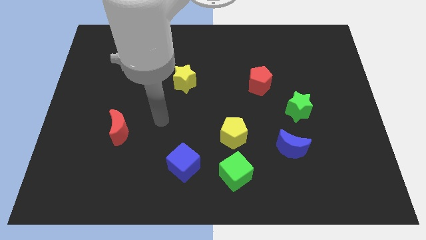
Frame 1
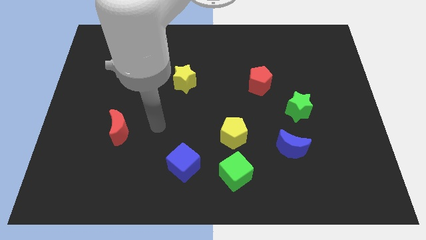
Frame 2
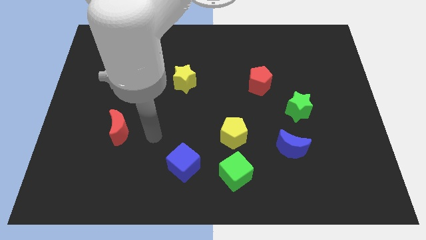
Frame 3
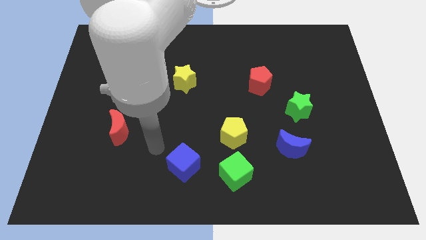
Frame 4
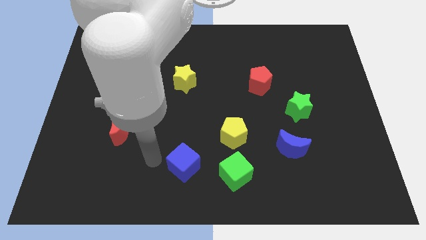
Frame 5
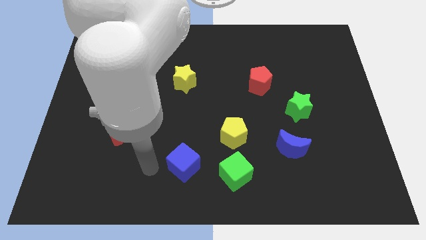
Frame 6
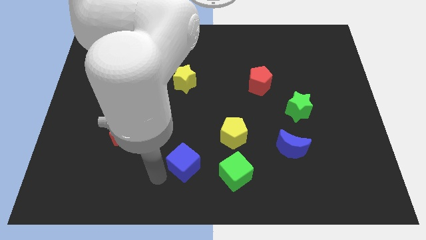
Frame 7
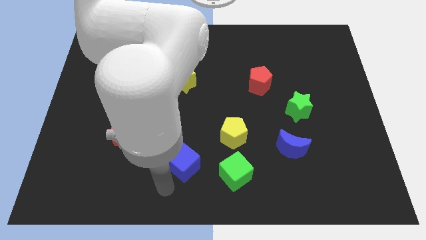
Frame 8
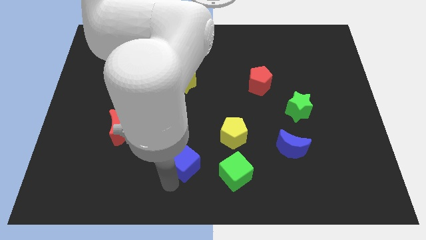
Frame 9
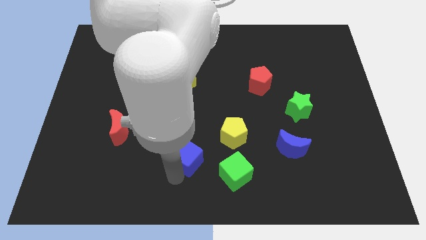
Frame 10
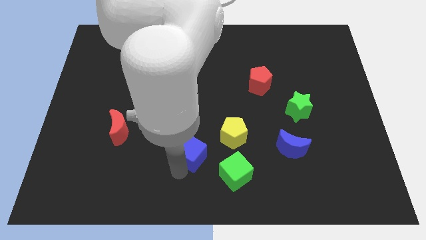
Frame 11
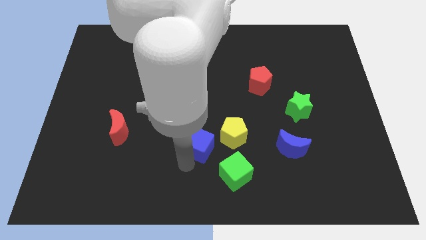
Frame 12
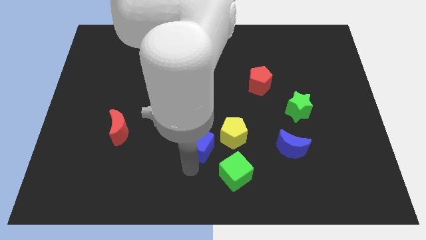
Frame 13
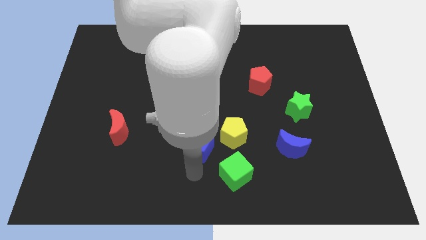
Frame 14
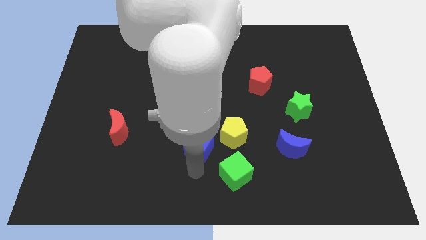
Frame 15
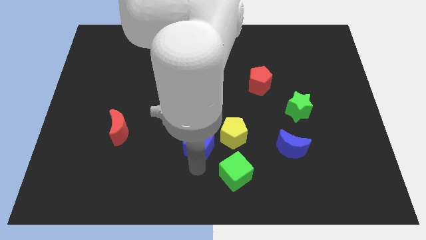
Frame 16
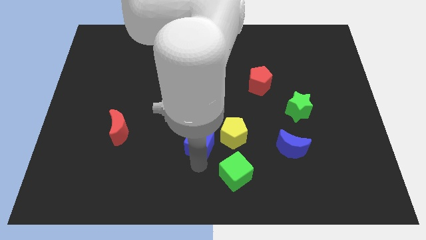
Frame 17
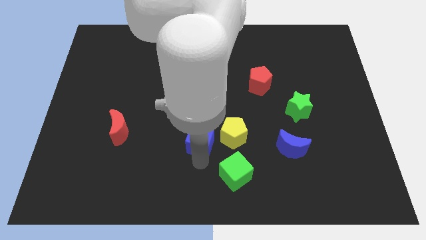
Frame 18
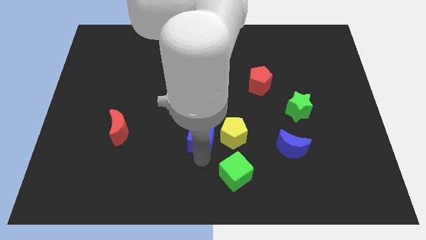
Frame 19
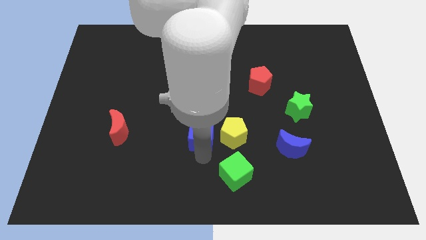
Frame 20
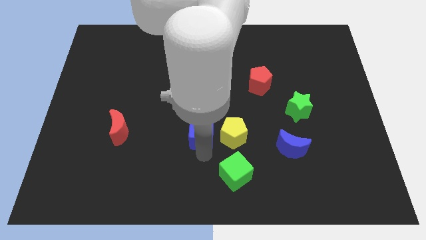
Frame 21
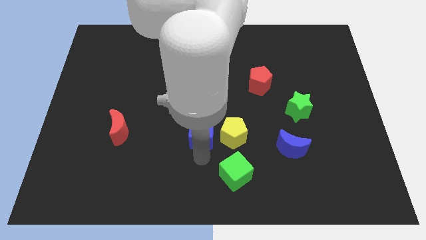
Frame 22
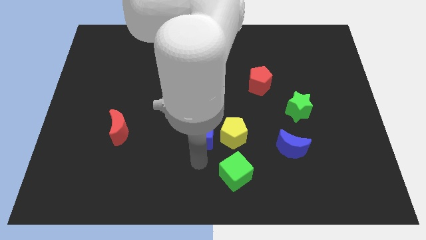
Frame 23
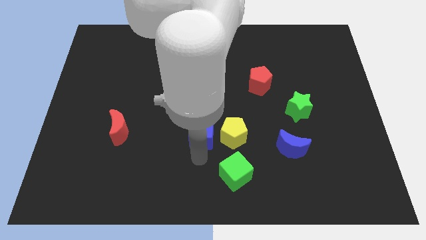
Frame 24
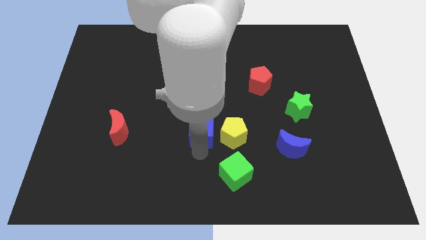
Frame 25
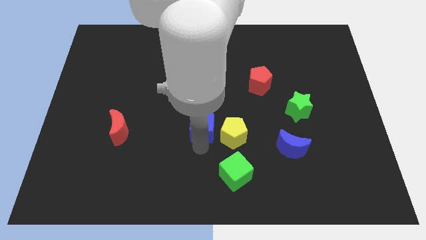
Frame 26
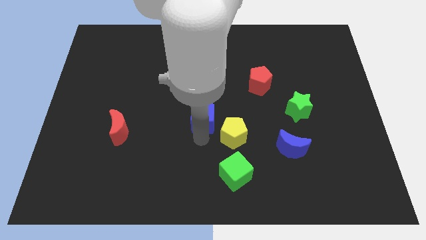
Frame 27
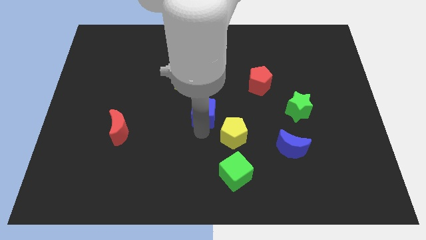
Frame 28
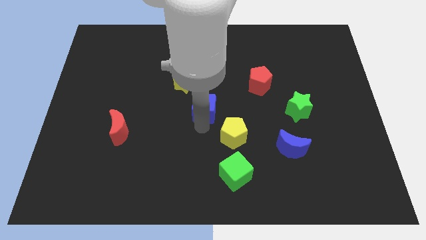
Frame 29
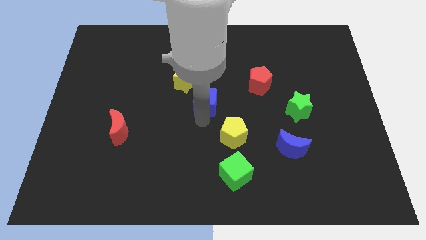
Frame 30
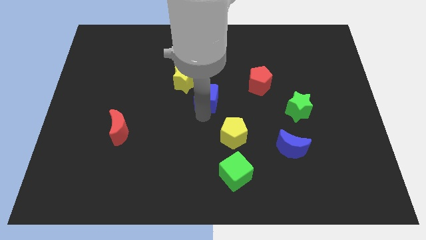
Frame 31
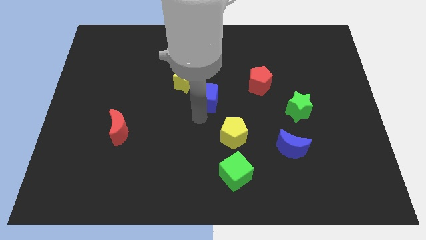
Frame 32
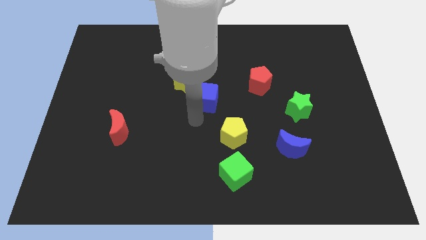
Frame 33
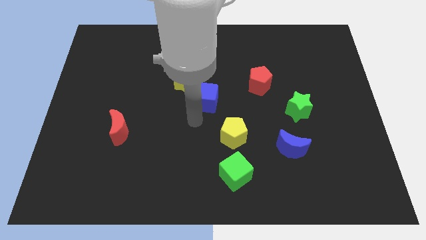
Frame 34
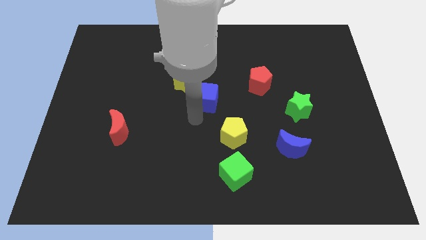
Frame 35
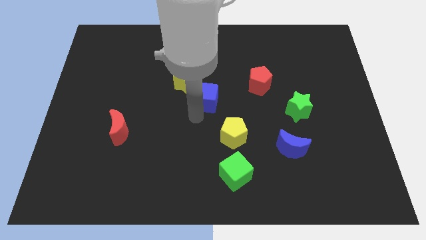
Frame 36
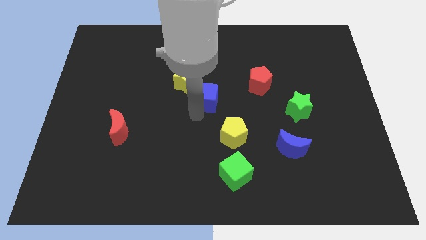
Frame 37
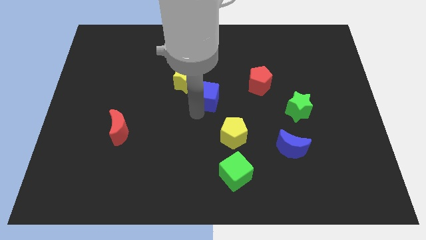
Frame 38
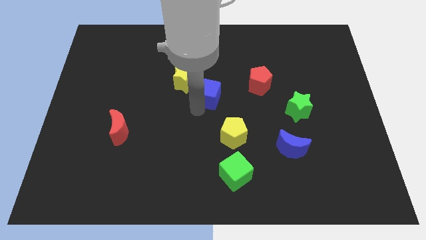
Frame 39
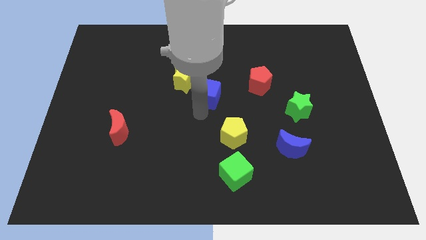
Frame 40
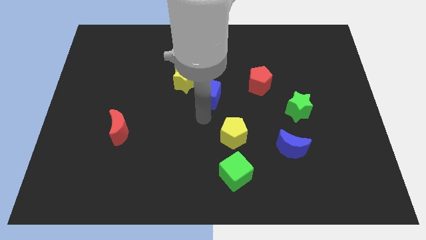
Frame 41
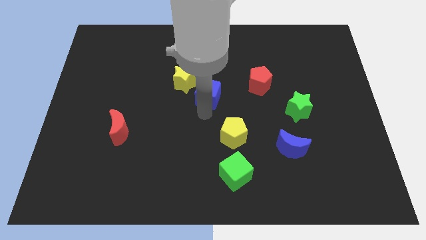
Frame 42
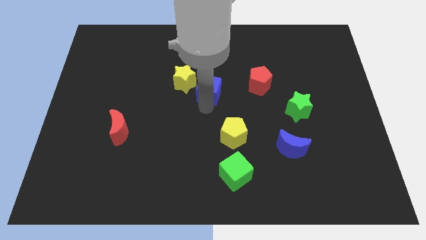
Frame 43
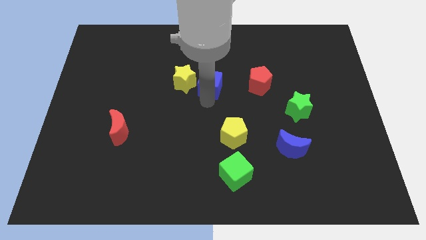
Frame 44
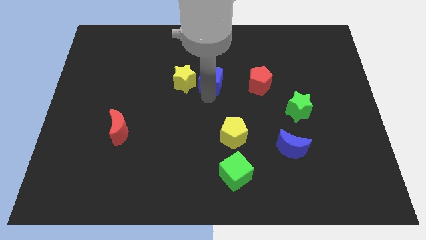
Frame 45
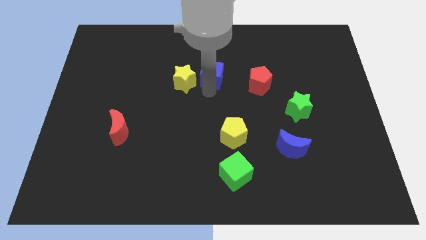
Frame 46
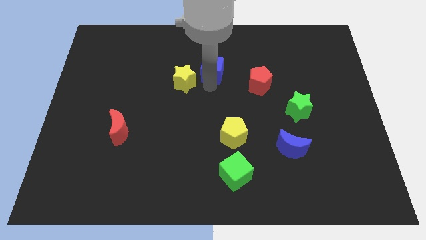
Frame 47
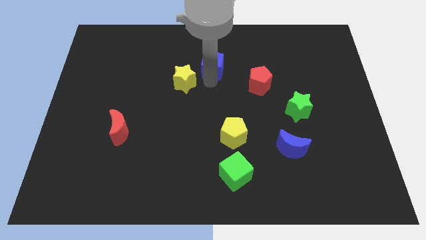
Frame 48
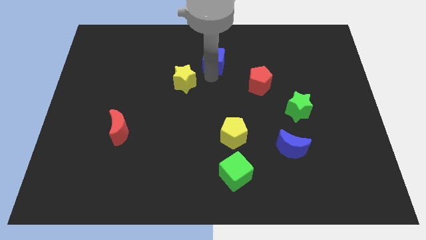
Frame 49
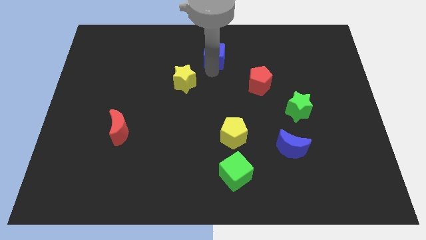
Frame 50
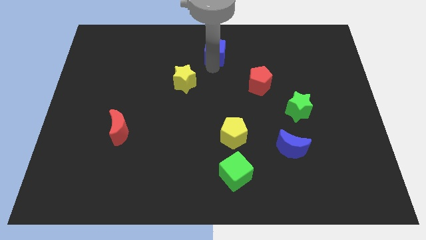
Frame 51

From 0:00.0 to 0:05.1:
push the blue cube to the towards your base

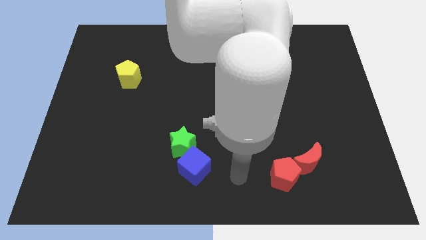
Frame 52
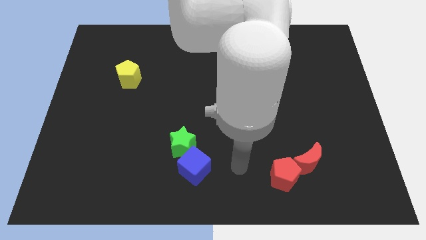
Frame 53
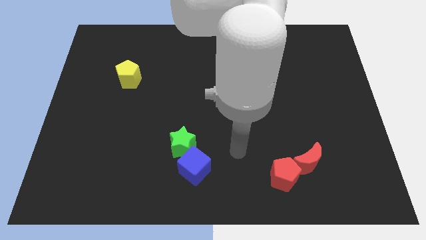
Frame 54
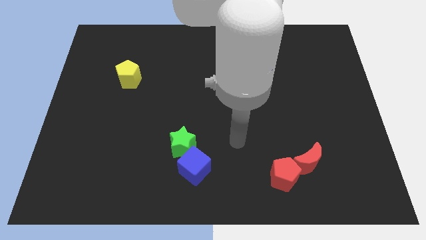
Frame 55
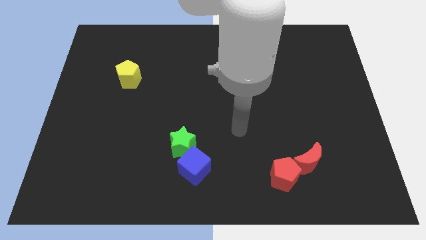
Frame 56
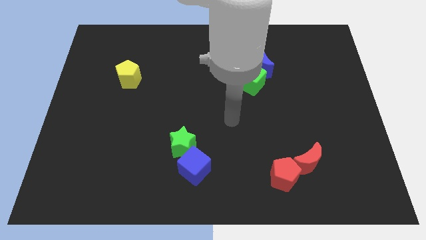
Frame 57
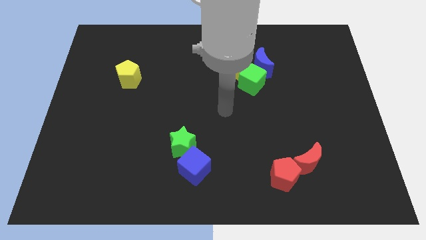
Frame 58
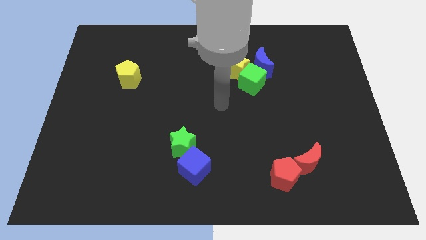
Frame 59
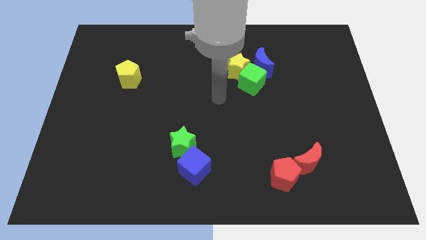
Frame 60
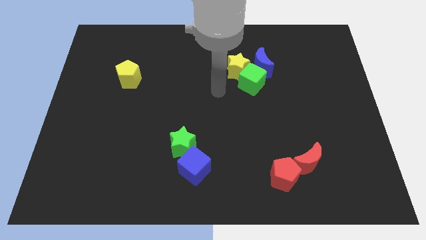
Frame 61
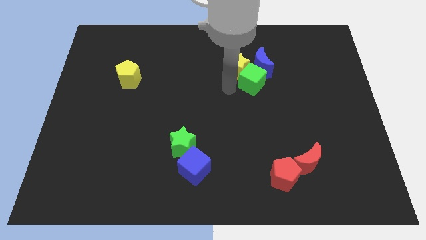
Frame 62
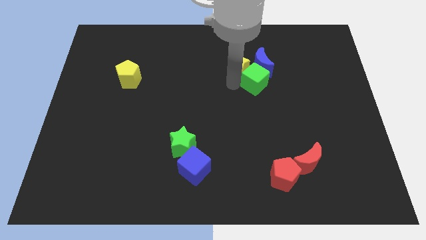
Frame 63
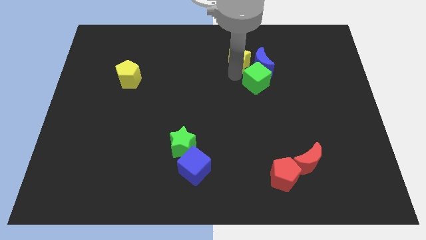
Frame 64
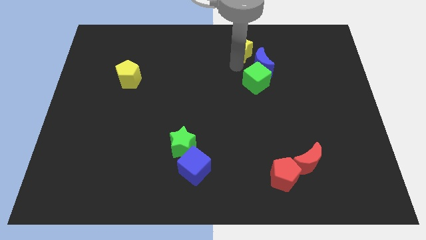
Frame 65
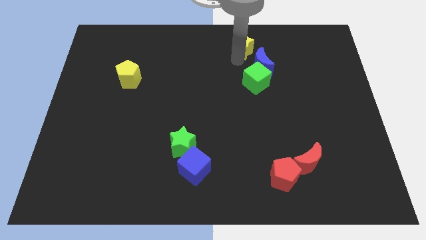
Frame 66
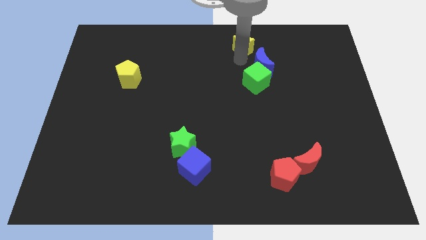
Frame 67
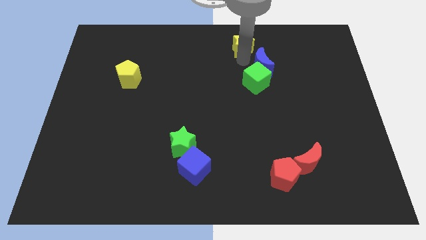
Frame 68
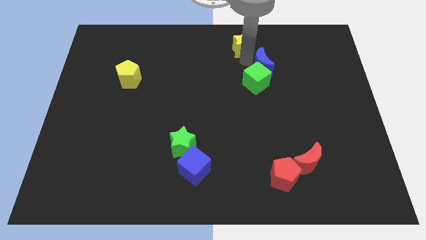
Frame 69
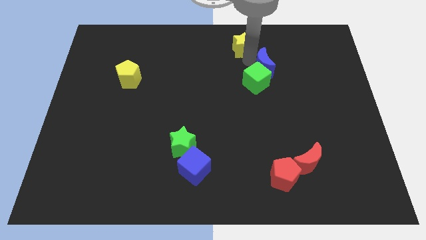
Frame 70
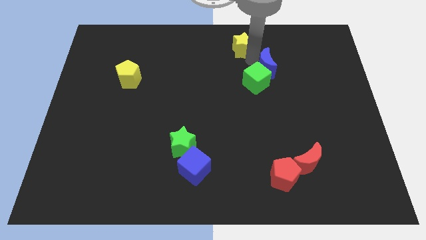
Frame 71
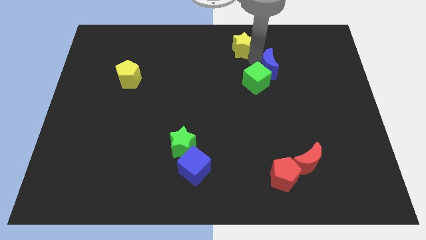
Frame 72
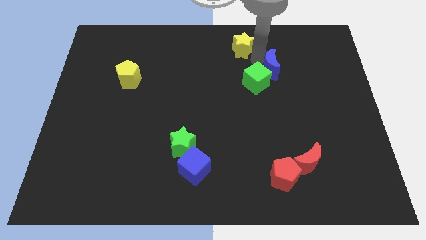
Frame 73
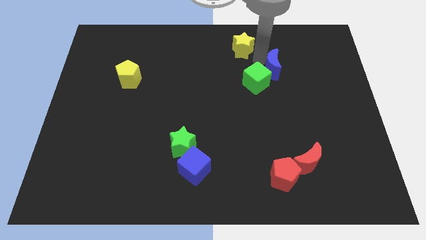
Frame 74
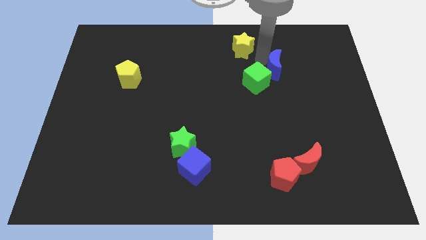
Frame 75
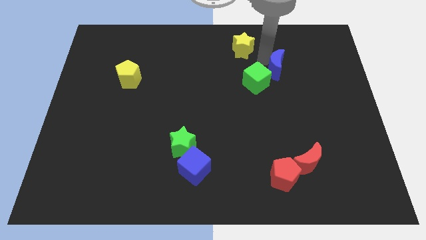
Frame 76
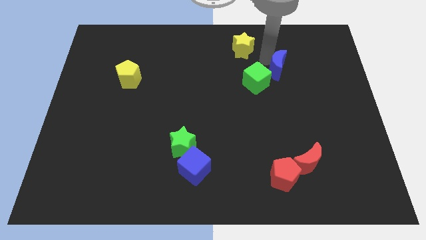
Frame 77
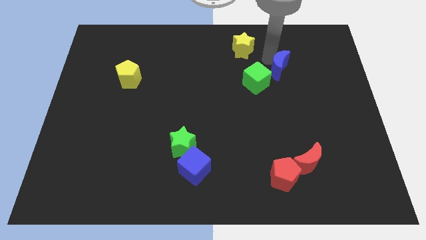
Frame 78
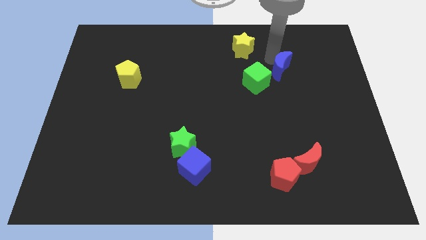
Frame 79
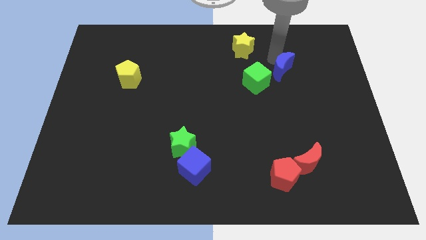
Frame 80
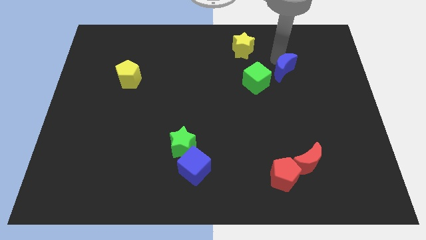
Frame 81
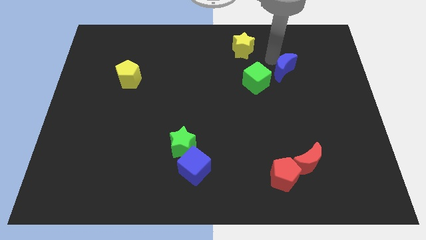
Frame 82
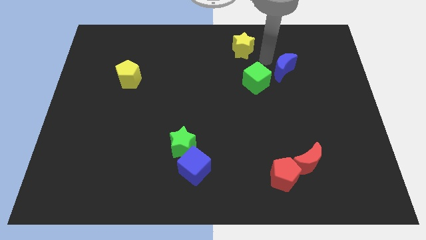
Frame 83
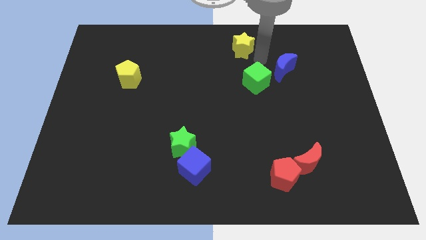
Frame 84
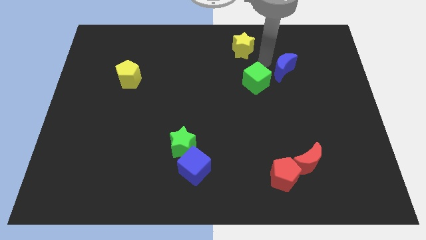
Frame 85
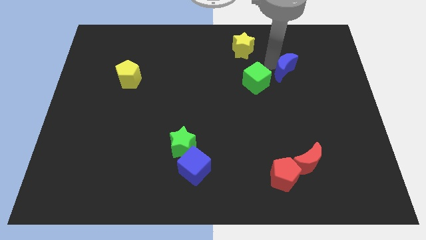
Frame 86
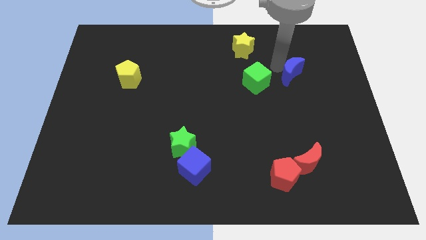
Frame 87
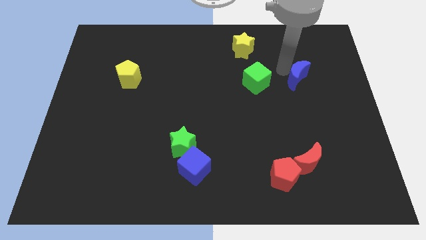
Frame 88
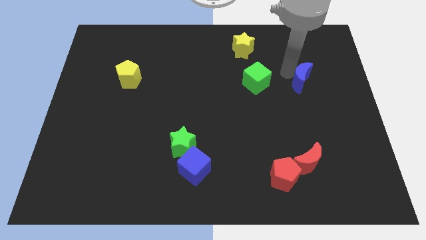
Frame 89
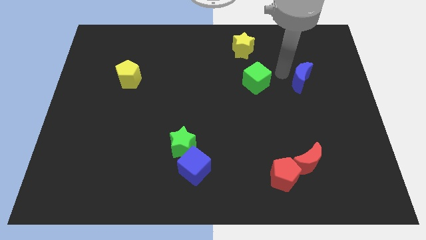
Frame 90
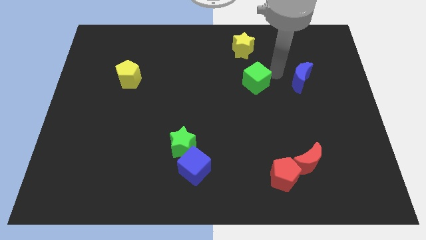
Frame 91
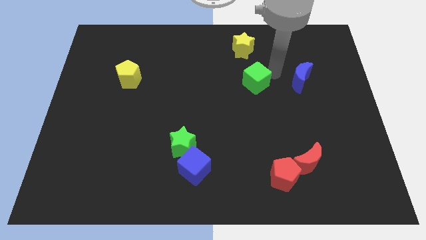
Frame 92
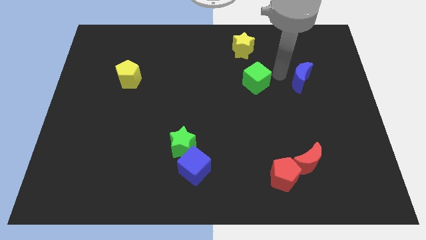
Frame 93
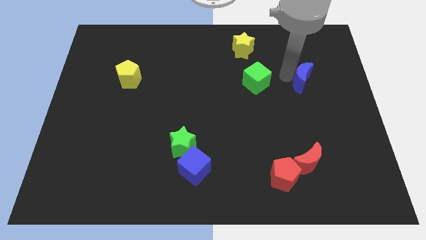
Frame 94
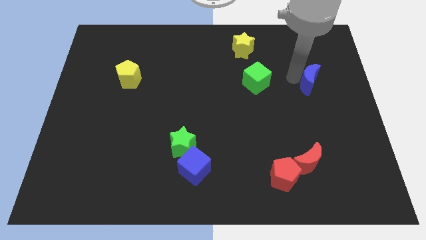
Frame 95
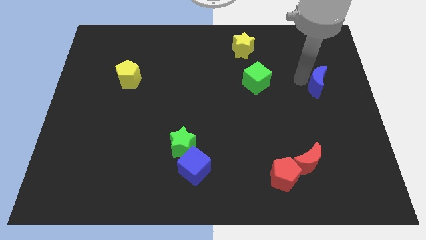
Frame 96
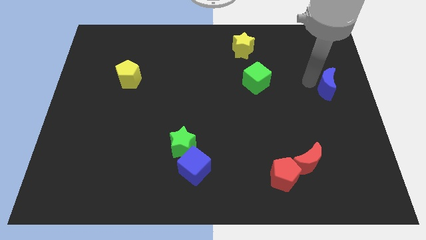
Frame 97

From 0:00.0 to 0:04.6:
move the blue moon to the center right
